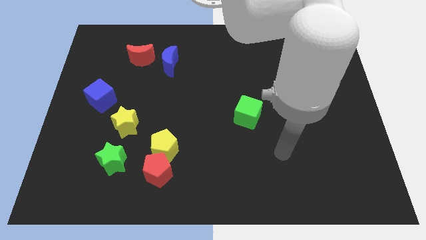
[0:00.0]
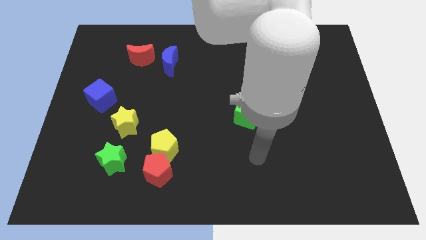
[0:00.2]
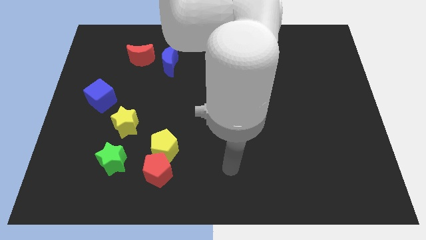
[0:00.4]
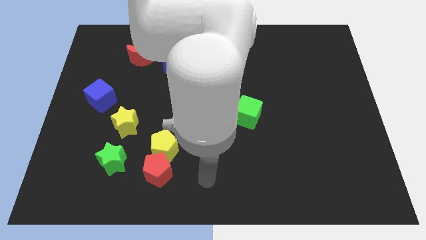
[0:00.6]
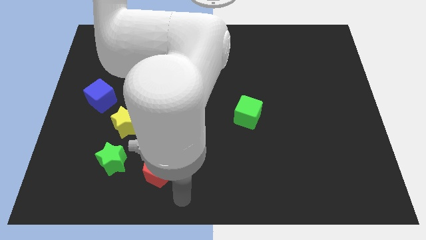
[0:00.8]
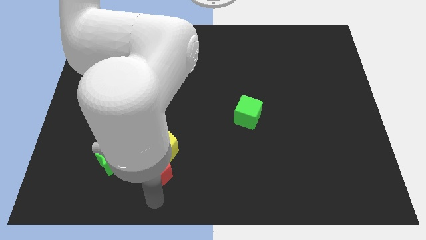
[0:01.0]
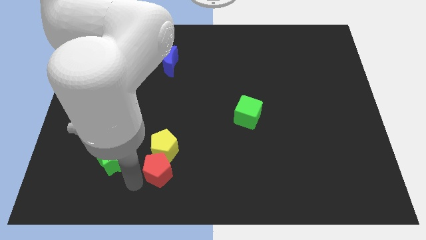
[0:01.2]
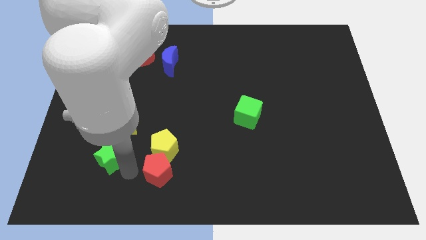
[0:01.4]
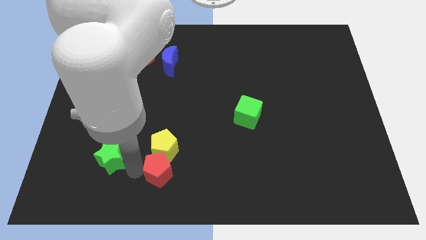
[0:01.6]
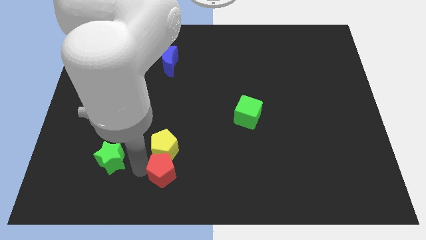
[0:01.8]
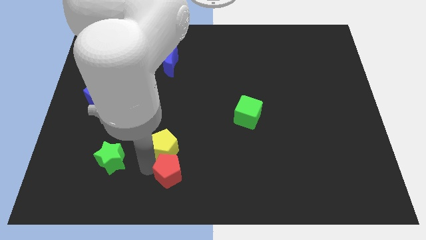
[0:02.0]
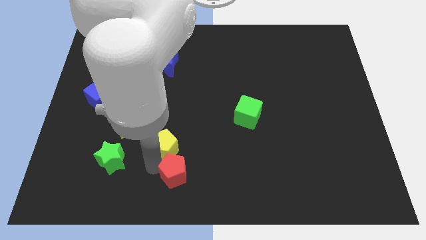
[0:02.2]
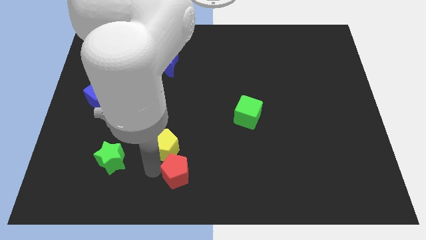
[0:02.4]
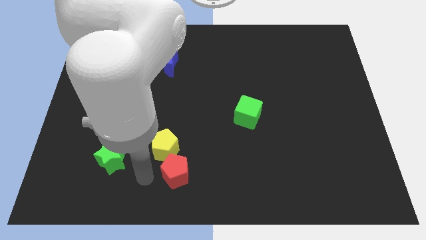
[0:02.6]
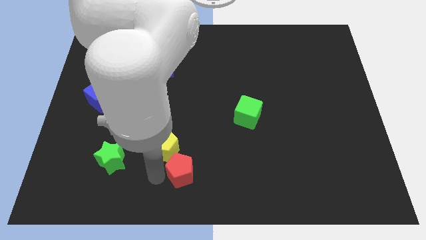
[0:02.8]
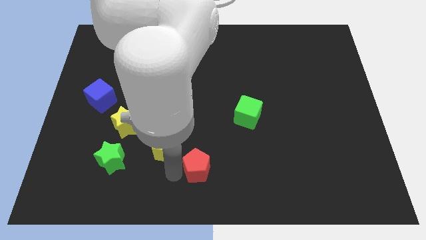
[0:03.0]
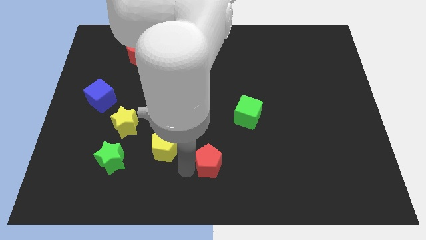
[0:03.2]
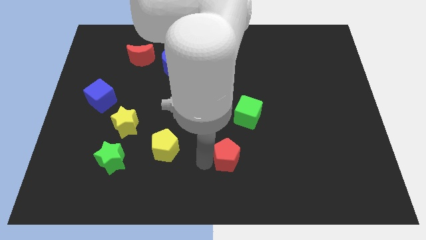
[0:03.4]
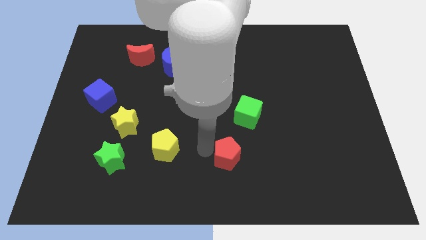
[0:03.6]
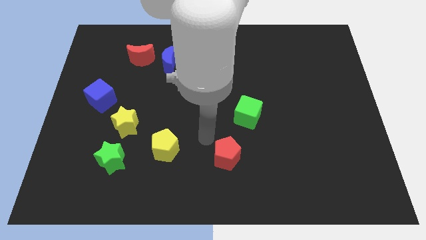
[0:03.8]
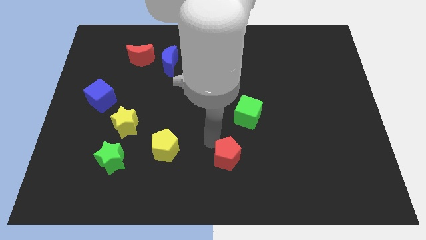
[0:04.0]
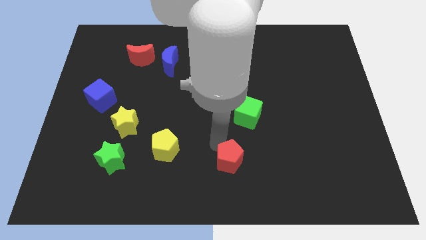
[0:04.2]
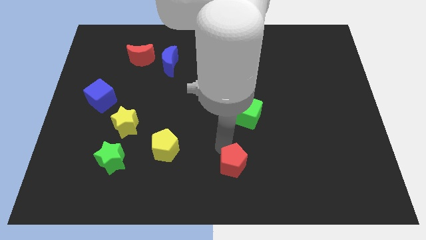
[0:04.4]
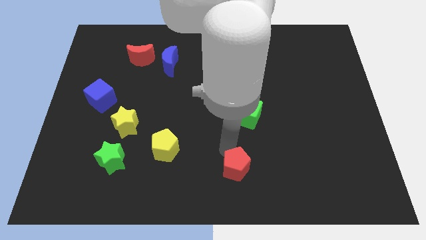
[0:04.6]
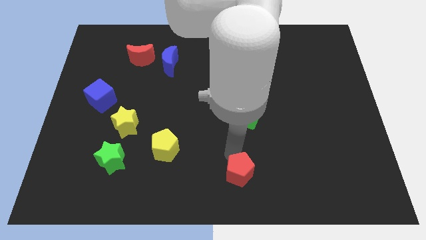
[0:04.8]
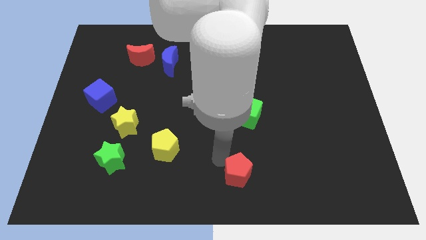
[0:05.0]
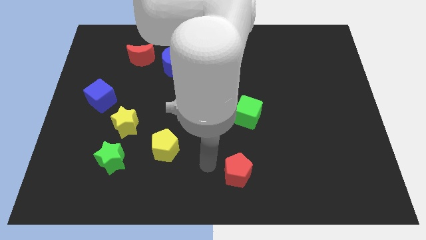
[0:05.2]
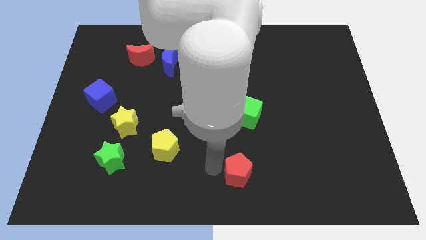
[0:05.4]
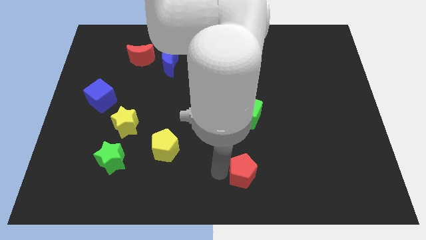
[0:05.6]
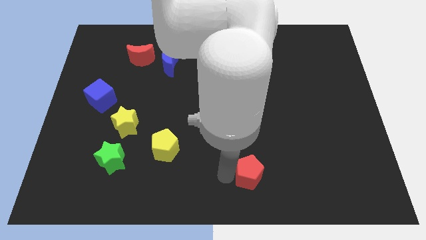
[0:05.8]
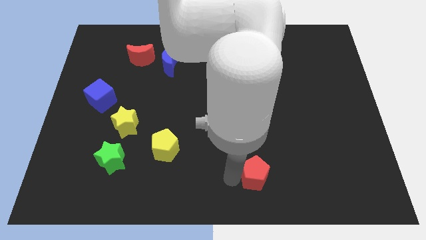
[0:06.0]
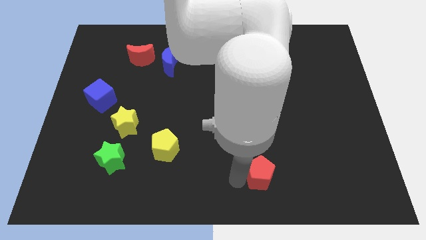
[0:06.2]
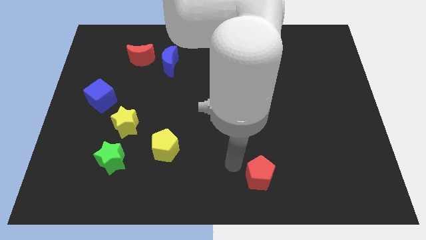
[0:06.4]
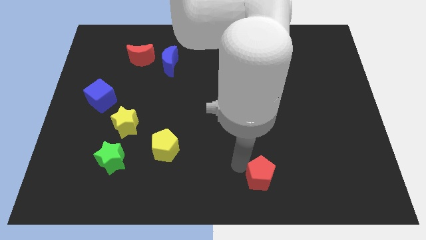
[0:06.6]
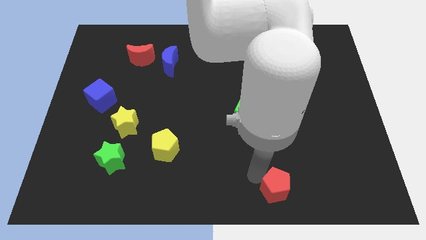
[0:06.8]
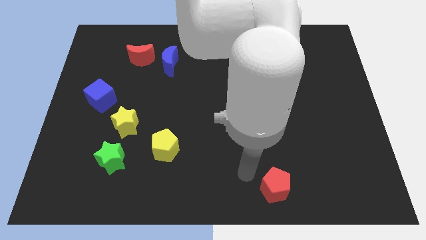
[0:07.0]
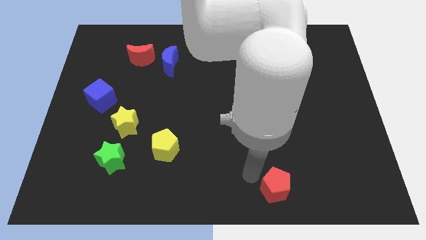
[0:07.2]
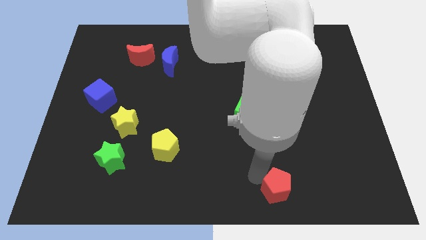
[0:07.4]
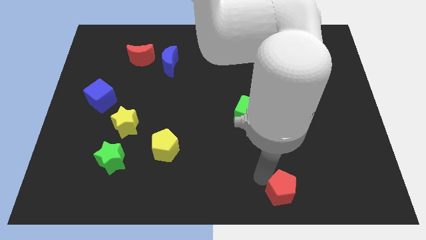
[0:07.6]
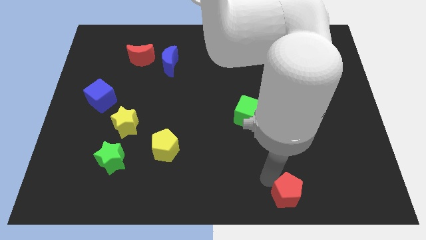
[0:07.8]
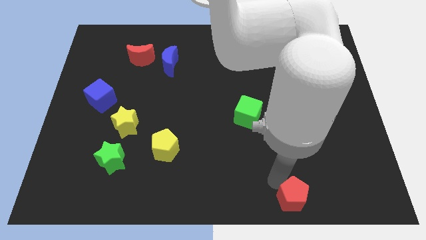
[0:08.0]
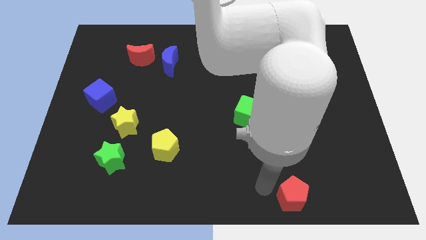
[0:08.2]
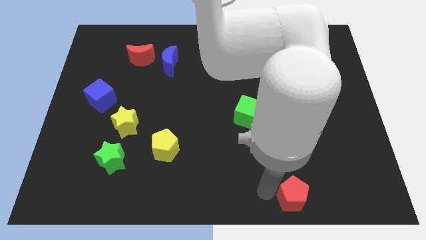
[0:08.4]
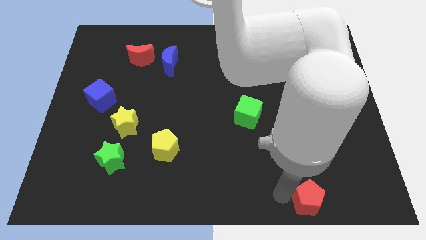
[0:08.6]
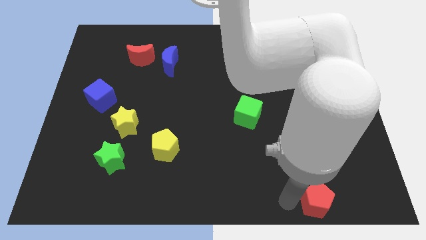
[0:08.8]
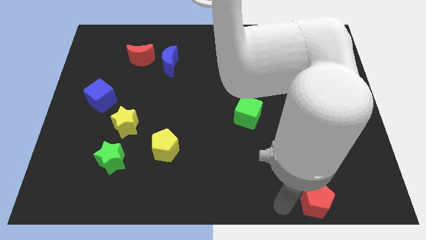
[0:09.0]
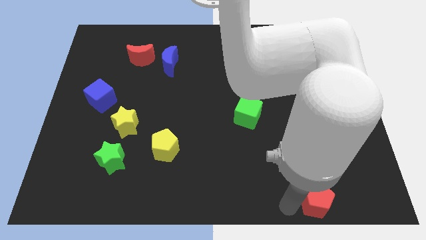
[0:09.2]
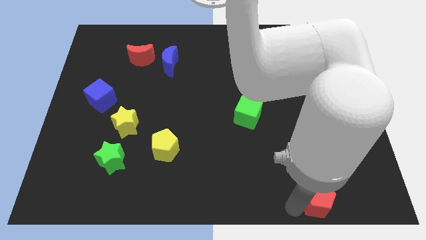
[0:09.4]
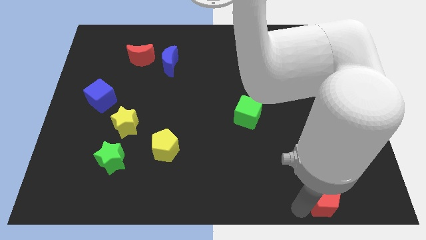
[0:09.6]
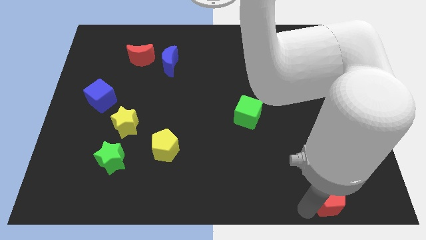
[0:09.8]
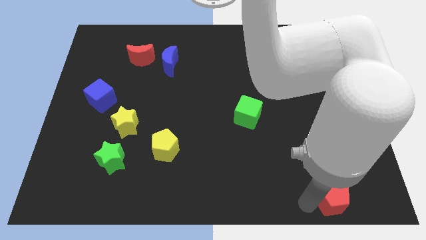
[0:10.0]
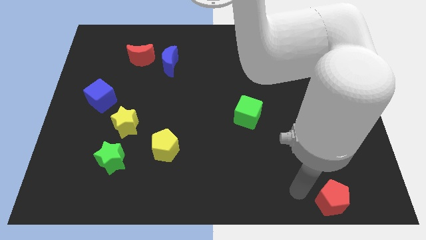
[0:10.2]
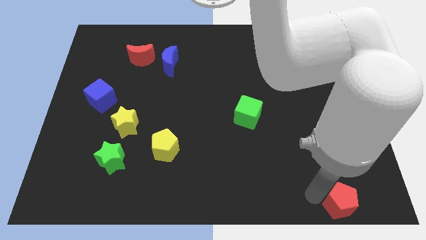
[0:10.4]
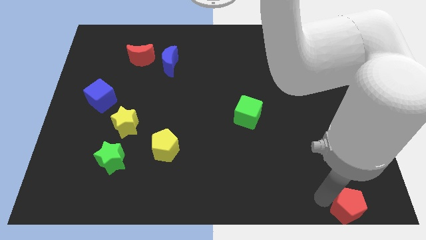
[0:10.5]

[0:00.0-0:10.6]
slide the red pentagon to the bottom right corner

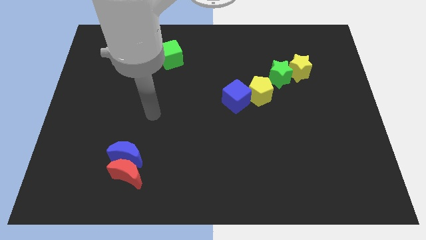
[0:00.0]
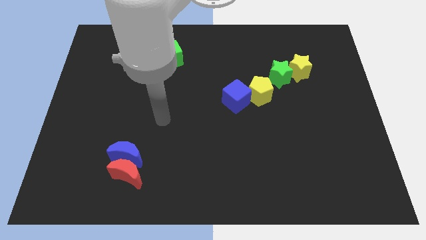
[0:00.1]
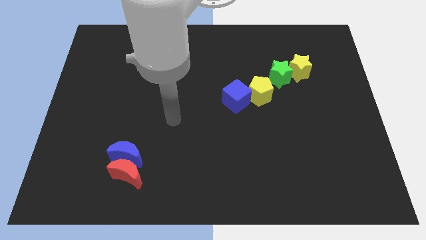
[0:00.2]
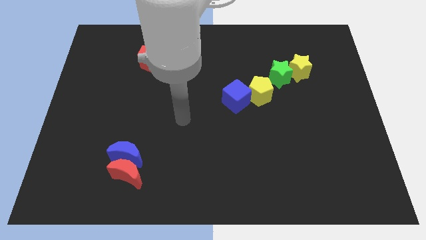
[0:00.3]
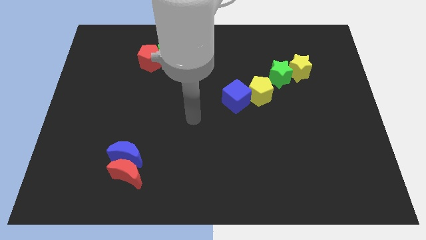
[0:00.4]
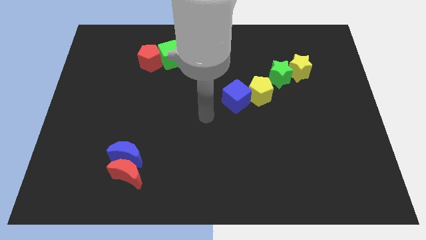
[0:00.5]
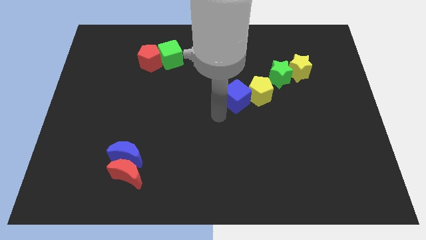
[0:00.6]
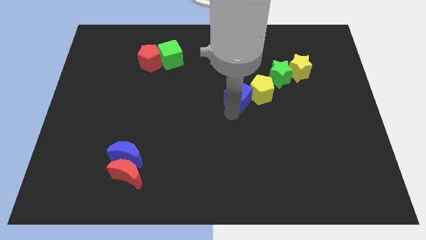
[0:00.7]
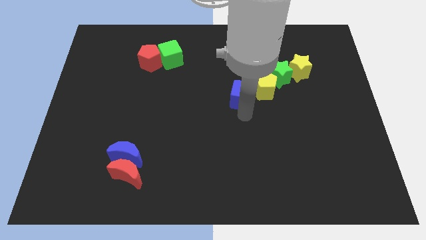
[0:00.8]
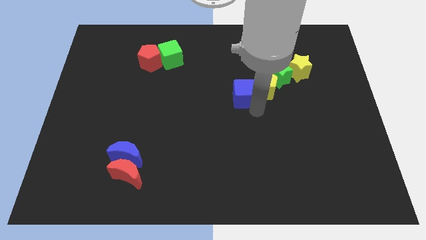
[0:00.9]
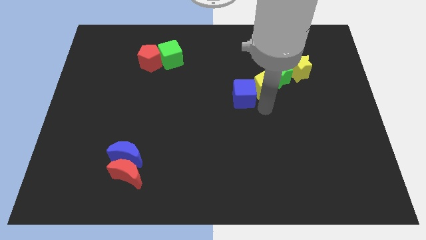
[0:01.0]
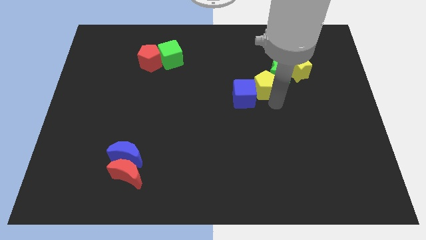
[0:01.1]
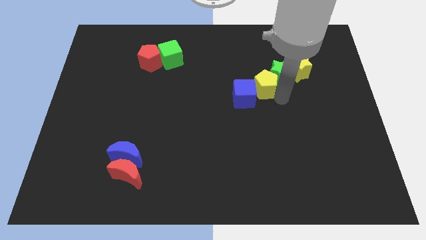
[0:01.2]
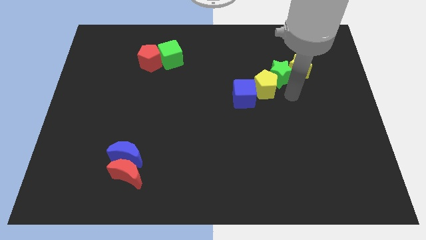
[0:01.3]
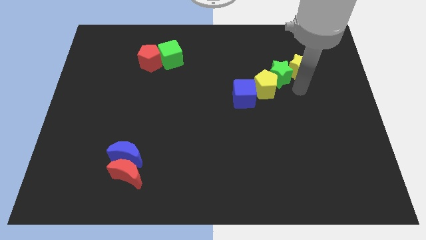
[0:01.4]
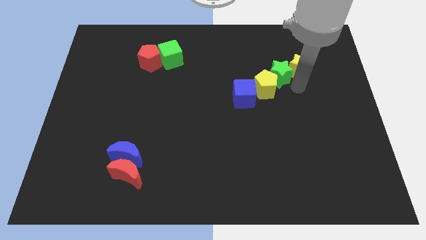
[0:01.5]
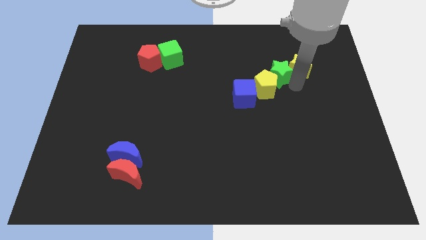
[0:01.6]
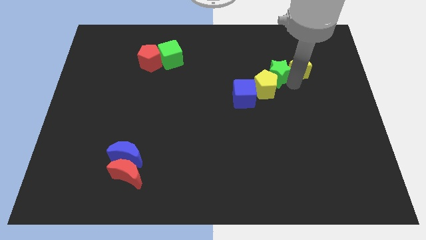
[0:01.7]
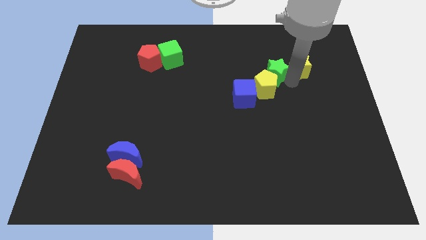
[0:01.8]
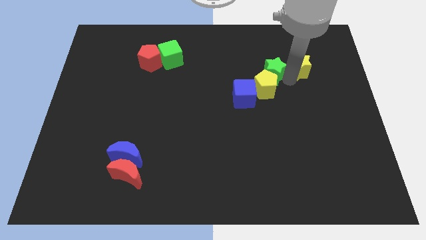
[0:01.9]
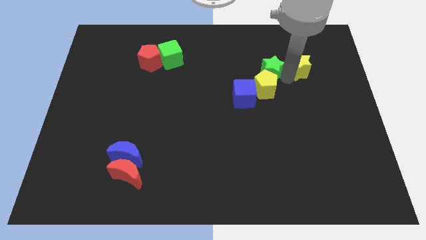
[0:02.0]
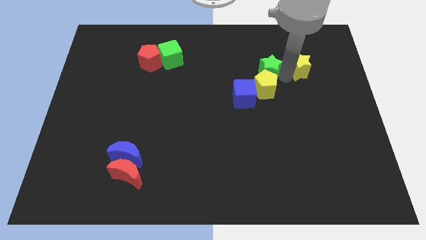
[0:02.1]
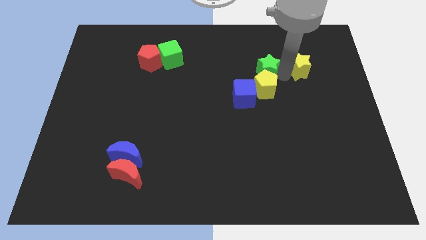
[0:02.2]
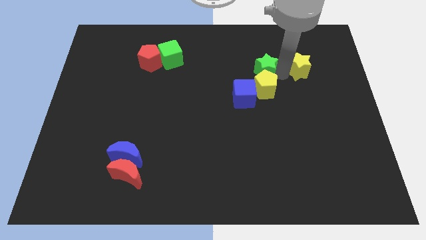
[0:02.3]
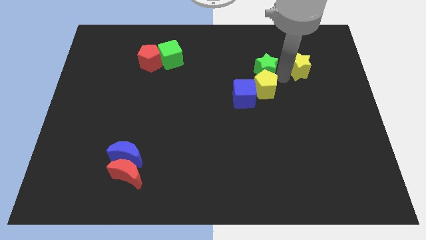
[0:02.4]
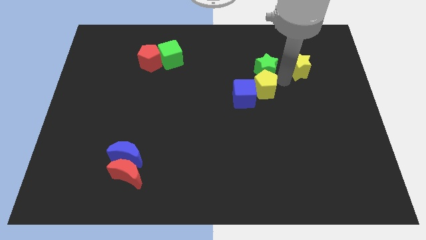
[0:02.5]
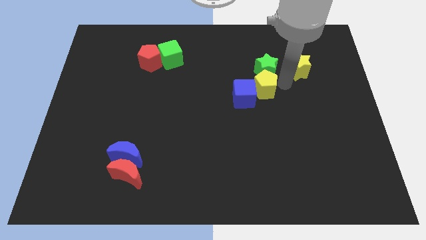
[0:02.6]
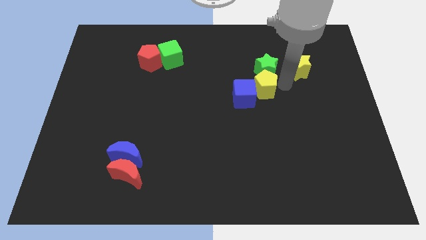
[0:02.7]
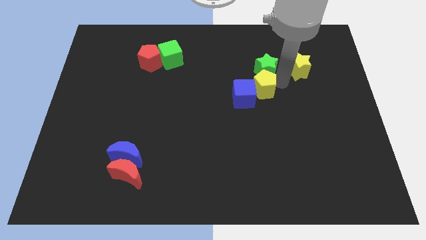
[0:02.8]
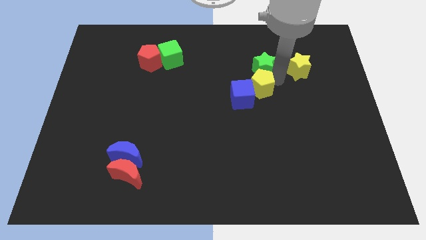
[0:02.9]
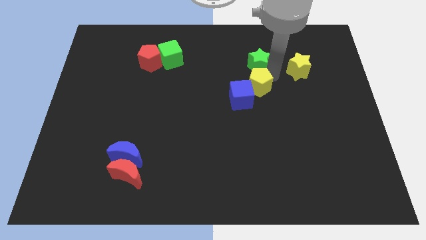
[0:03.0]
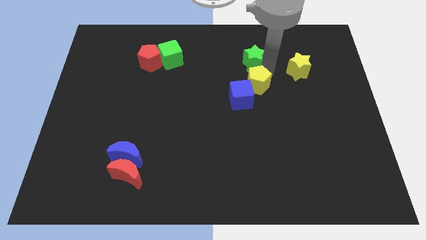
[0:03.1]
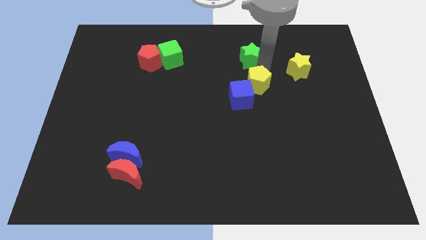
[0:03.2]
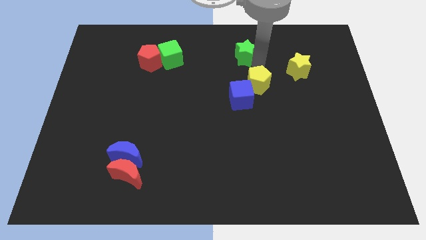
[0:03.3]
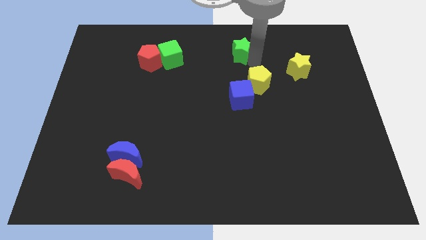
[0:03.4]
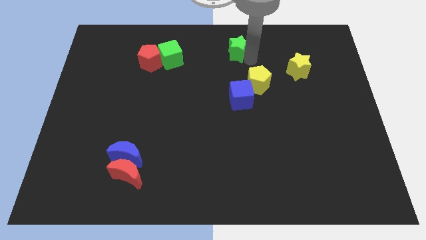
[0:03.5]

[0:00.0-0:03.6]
put the green star to the top side
